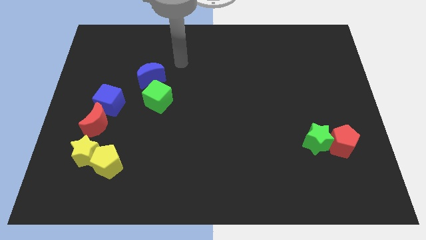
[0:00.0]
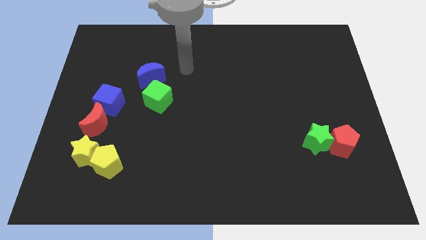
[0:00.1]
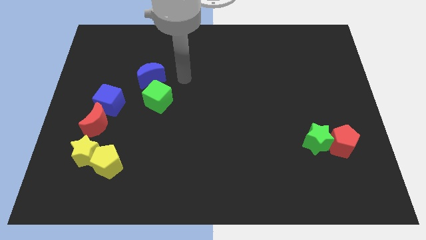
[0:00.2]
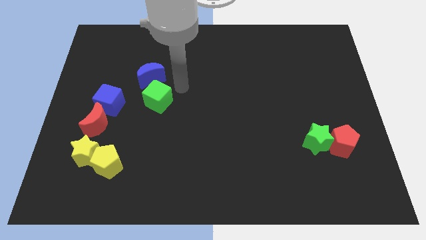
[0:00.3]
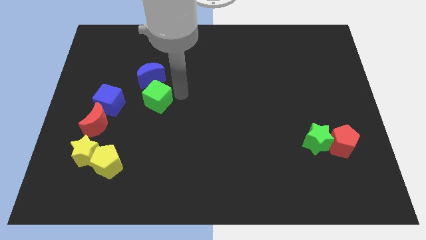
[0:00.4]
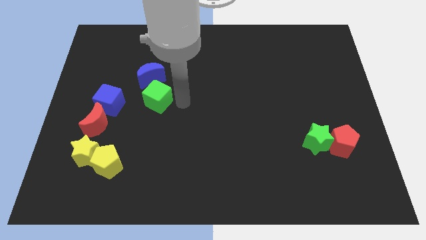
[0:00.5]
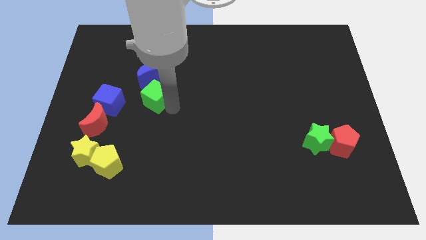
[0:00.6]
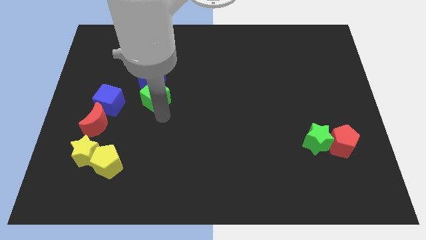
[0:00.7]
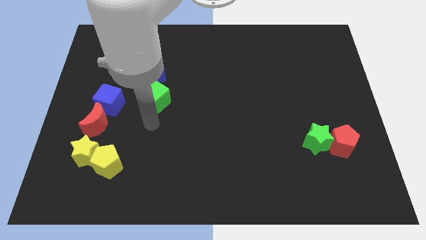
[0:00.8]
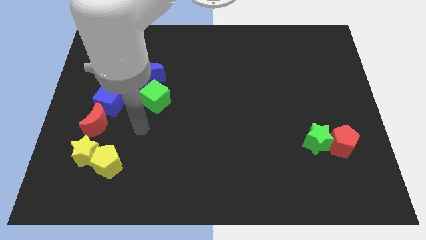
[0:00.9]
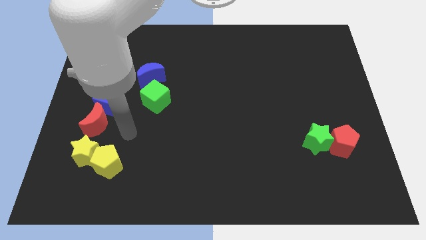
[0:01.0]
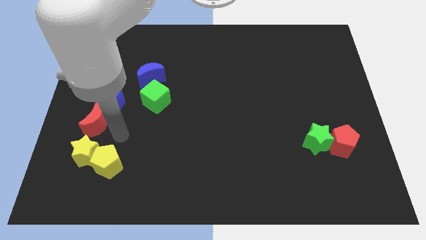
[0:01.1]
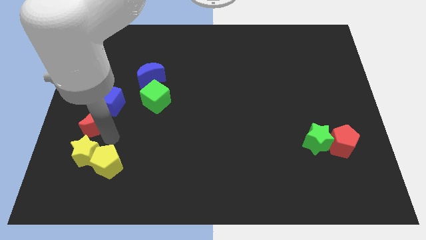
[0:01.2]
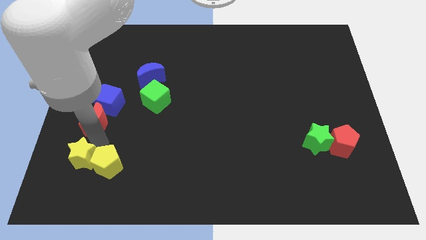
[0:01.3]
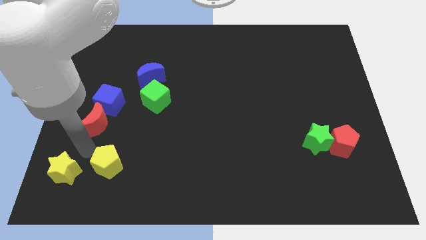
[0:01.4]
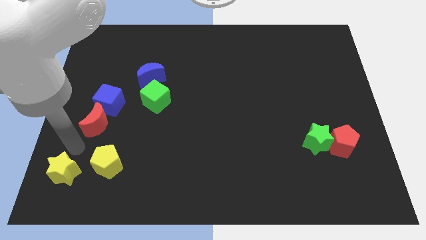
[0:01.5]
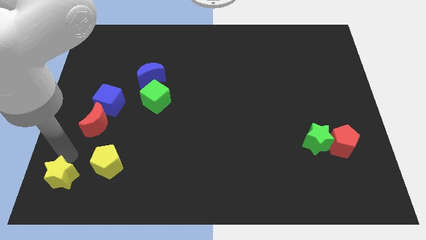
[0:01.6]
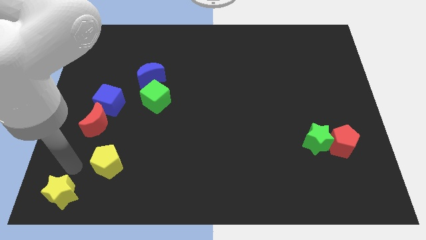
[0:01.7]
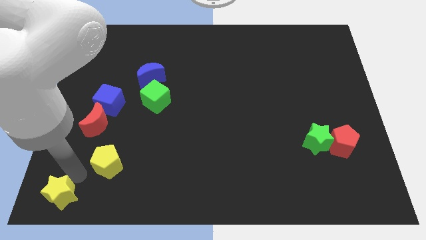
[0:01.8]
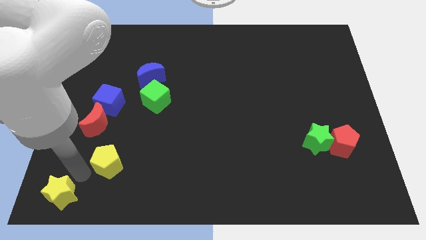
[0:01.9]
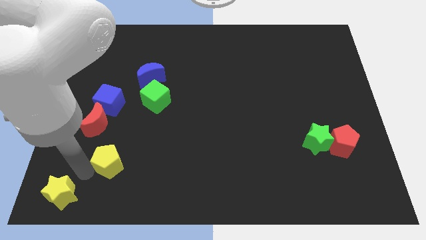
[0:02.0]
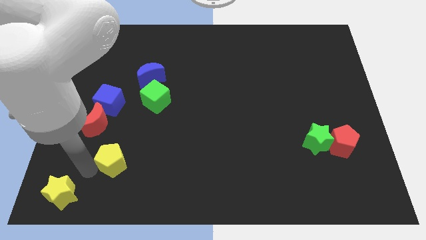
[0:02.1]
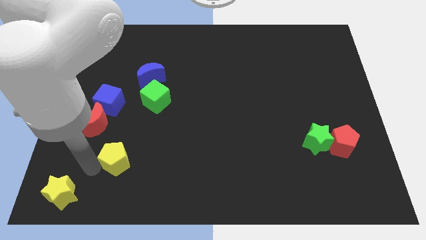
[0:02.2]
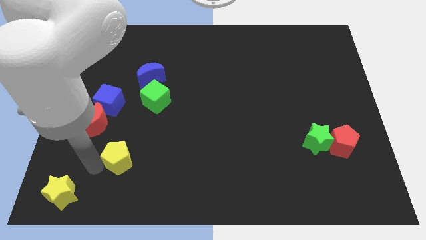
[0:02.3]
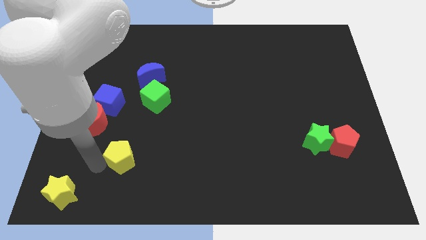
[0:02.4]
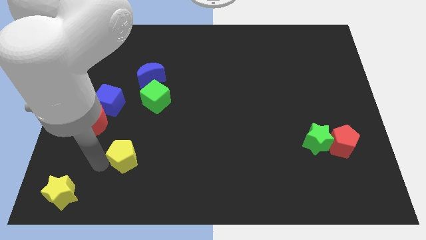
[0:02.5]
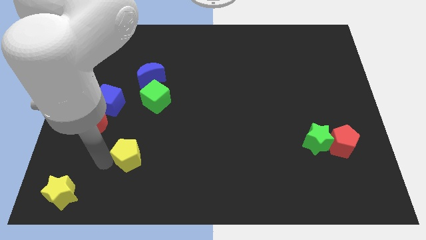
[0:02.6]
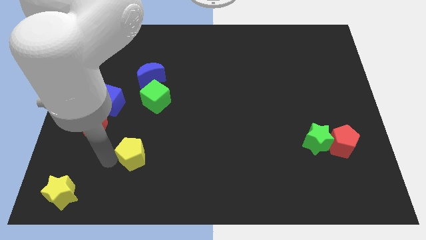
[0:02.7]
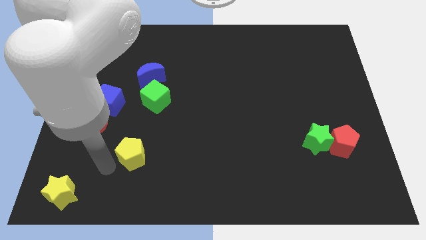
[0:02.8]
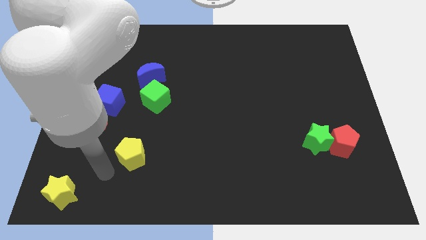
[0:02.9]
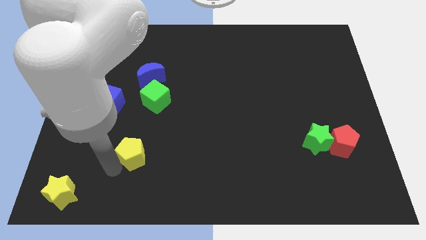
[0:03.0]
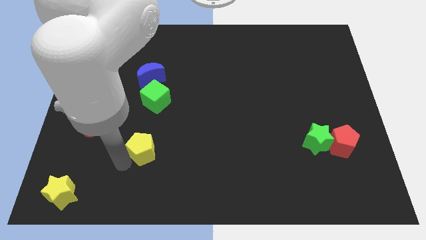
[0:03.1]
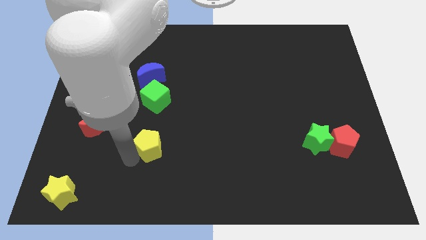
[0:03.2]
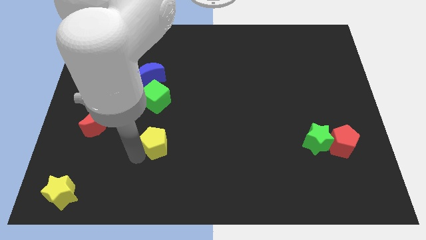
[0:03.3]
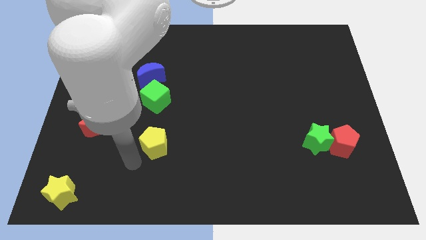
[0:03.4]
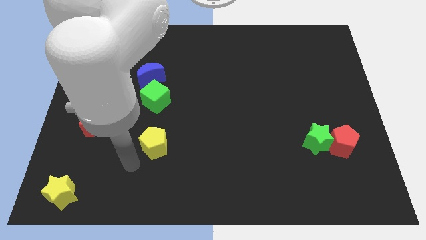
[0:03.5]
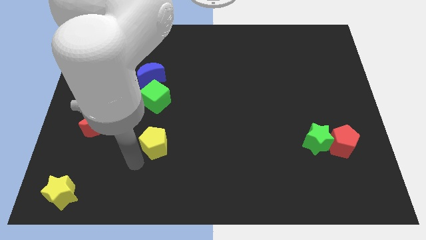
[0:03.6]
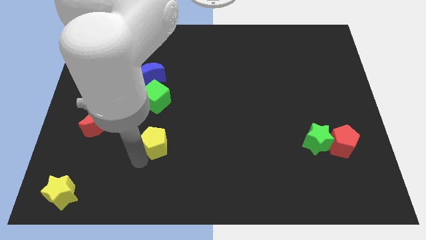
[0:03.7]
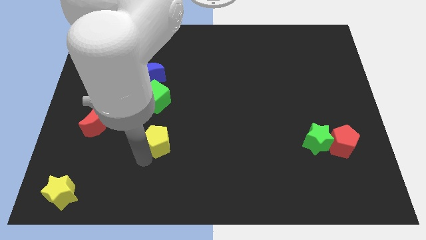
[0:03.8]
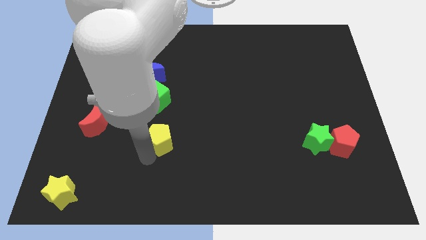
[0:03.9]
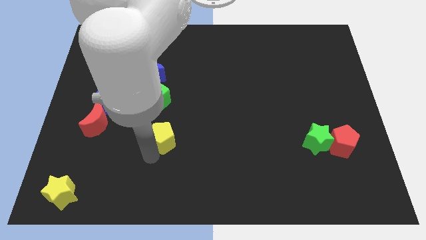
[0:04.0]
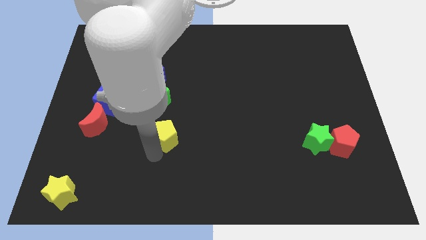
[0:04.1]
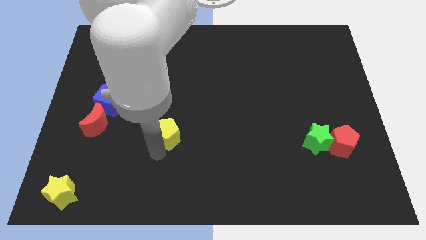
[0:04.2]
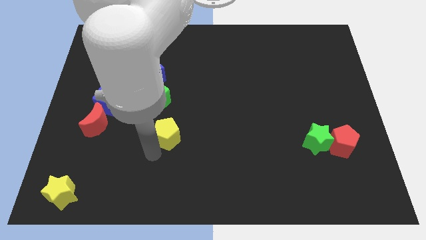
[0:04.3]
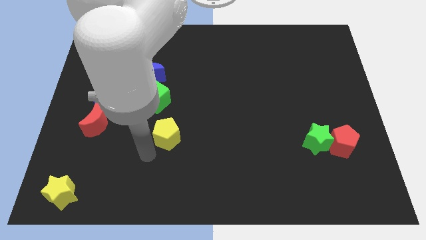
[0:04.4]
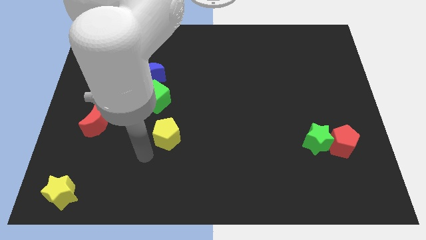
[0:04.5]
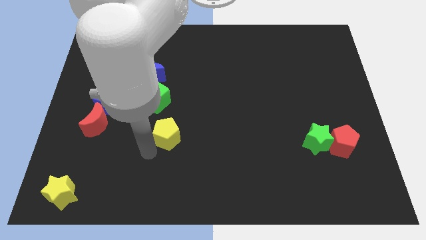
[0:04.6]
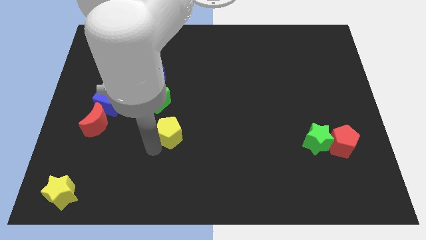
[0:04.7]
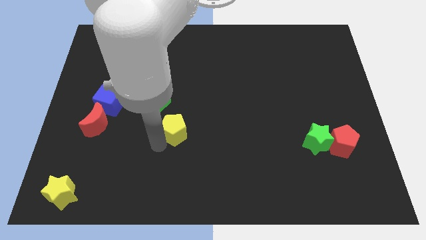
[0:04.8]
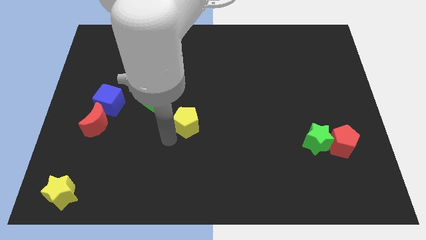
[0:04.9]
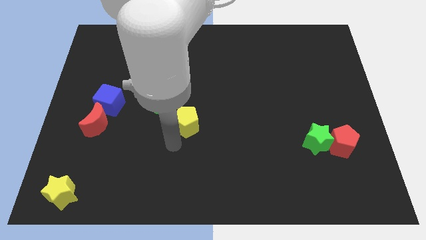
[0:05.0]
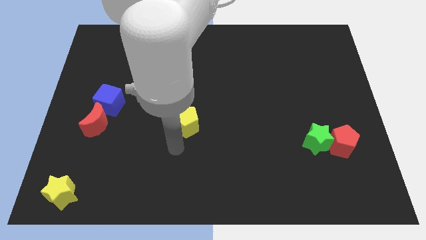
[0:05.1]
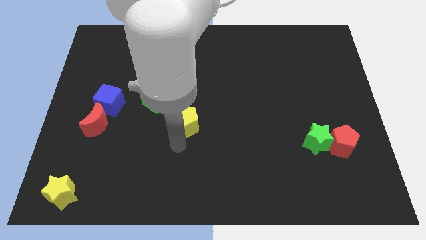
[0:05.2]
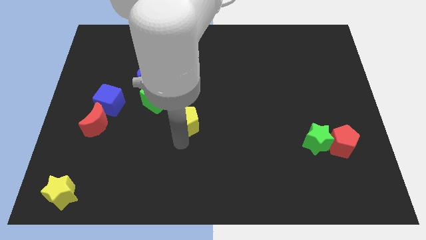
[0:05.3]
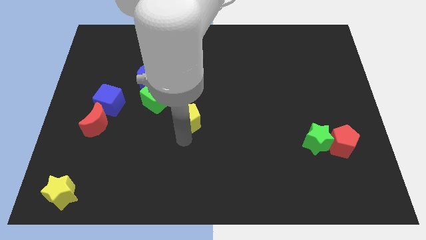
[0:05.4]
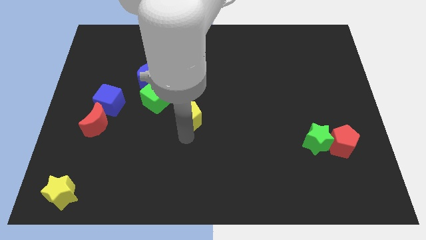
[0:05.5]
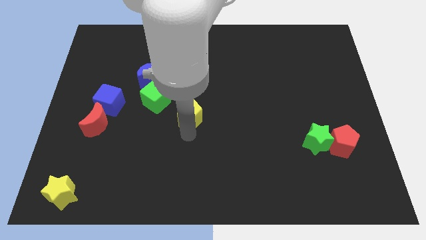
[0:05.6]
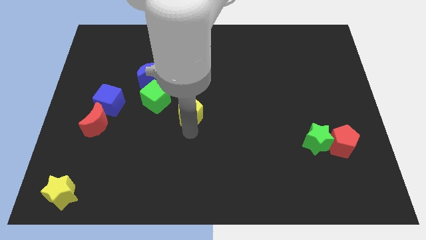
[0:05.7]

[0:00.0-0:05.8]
move the yellow pentagon right of the green cube

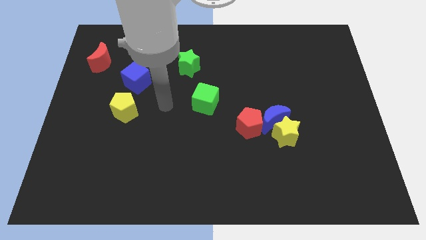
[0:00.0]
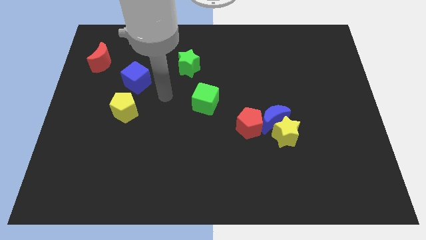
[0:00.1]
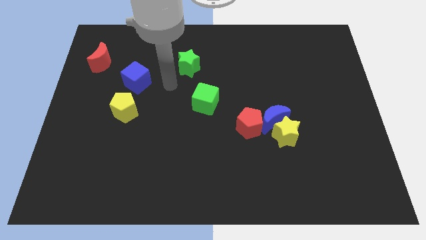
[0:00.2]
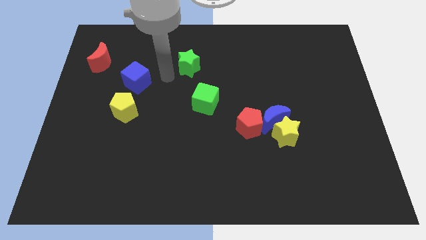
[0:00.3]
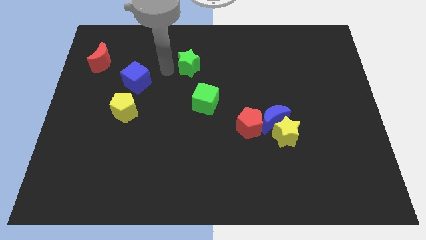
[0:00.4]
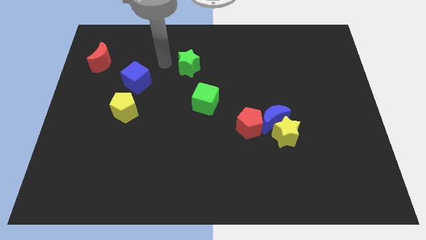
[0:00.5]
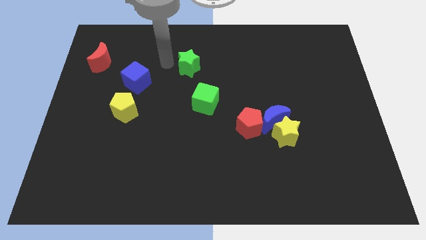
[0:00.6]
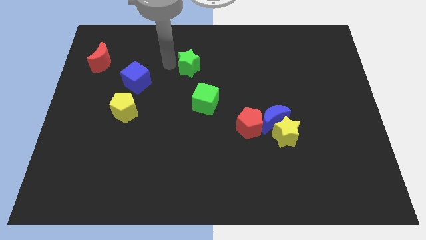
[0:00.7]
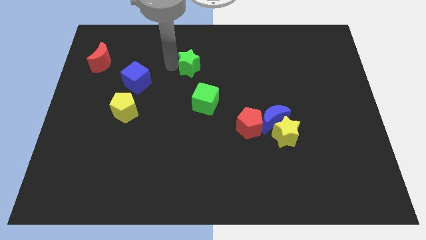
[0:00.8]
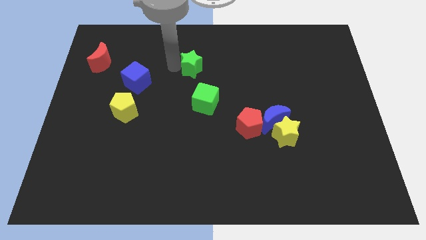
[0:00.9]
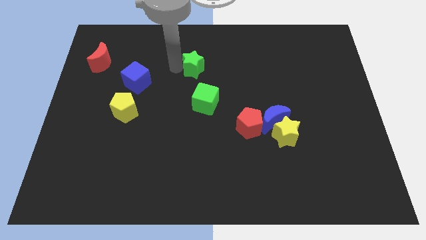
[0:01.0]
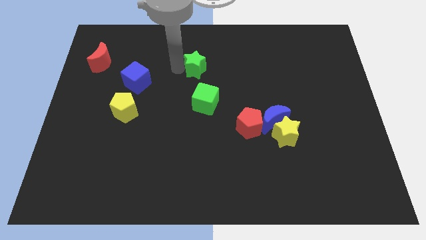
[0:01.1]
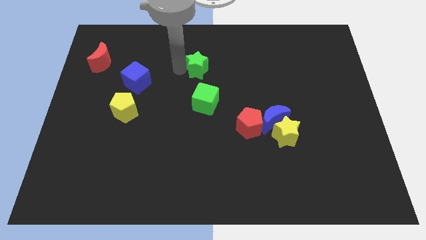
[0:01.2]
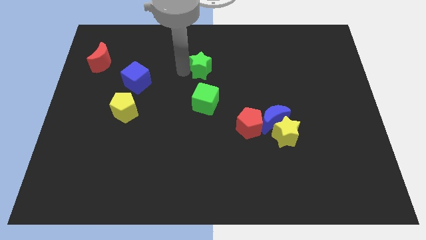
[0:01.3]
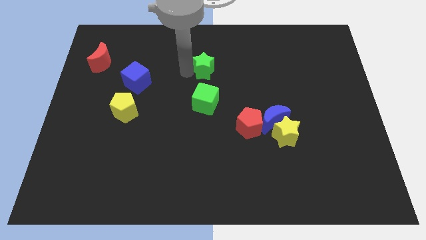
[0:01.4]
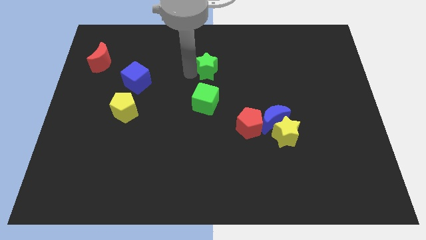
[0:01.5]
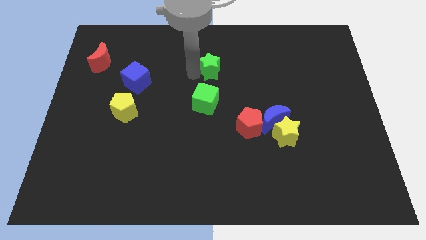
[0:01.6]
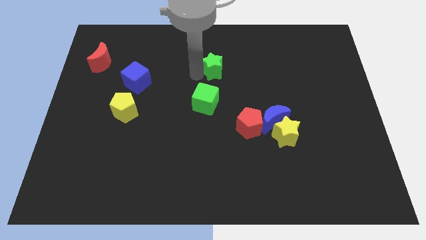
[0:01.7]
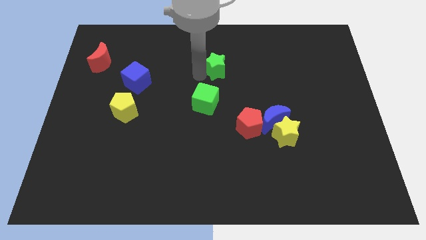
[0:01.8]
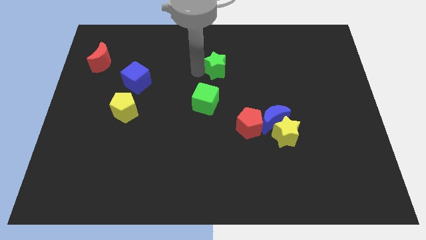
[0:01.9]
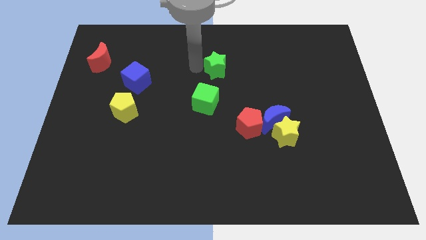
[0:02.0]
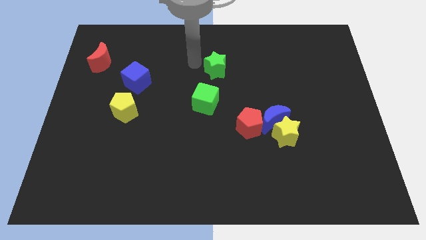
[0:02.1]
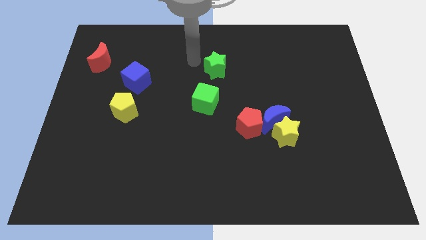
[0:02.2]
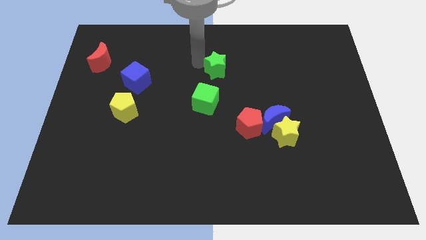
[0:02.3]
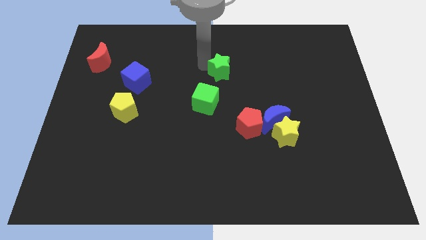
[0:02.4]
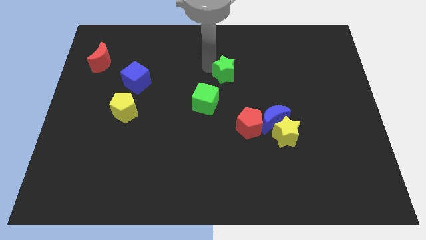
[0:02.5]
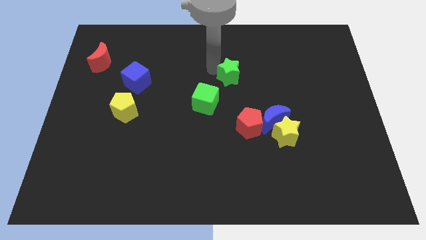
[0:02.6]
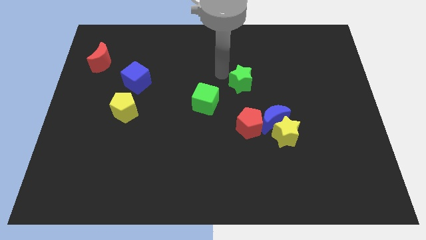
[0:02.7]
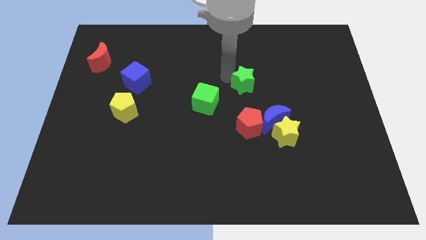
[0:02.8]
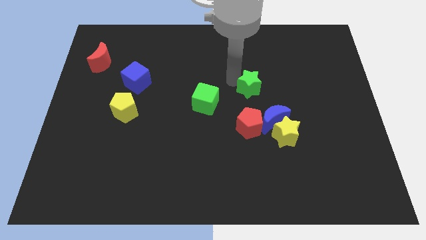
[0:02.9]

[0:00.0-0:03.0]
push the green star to the top of the blue moon
